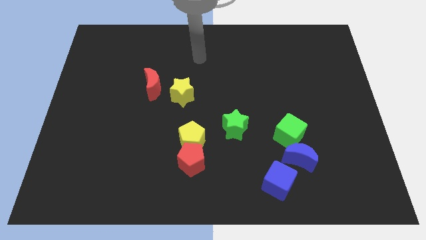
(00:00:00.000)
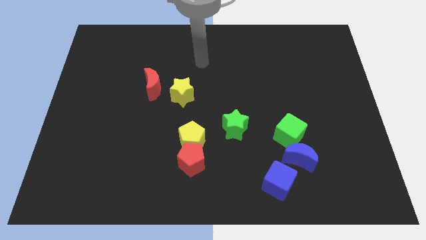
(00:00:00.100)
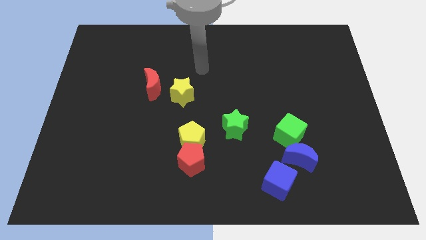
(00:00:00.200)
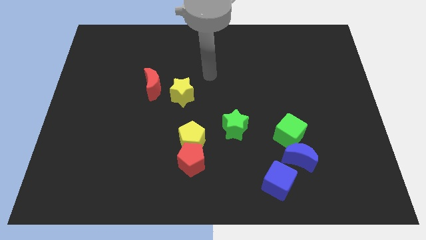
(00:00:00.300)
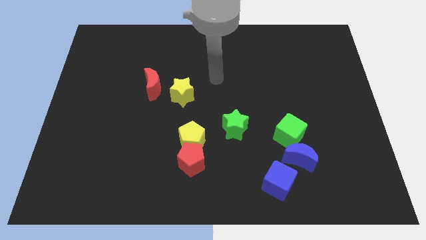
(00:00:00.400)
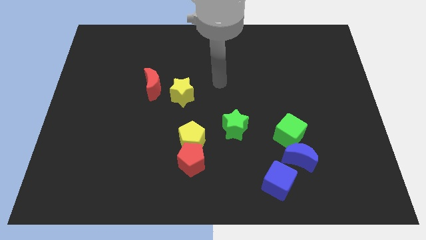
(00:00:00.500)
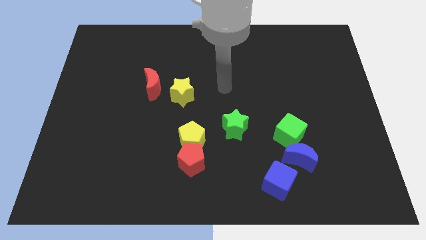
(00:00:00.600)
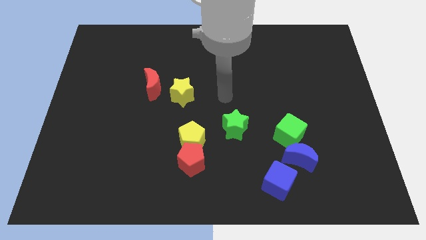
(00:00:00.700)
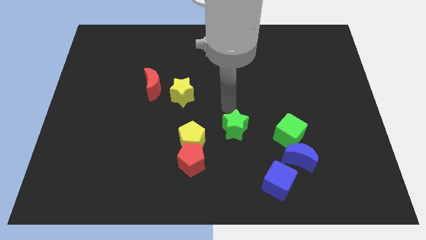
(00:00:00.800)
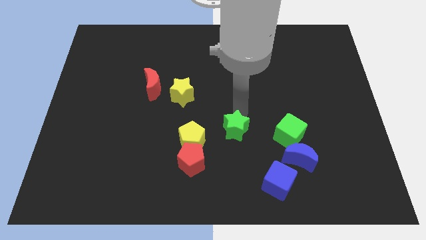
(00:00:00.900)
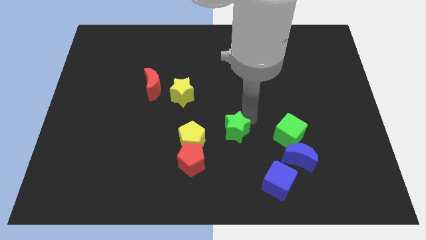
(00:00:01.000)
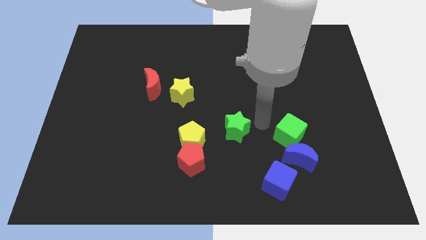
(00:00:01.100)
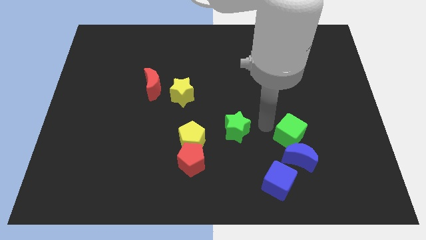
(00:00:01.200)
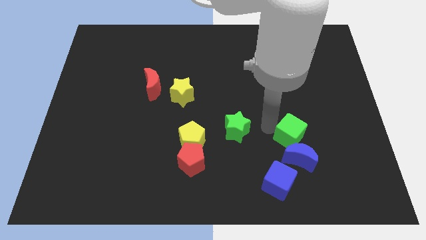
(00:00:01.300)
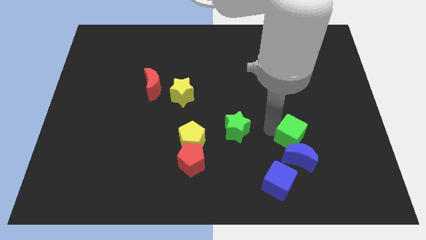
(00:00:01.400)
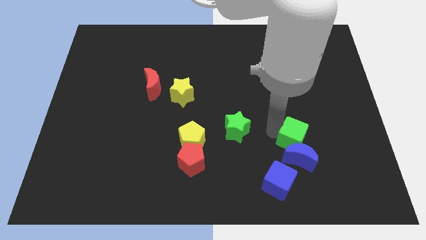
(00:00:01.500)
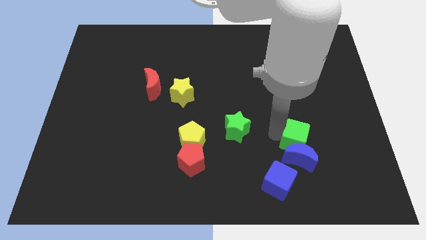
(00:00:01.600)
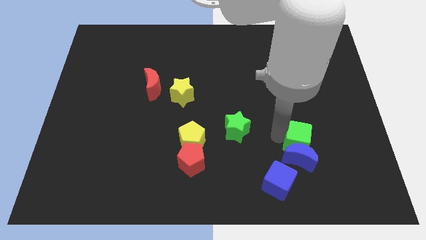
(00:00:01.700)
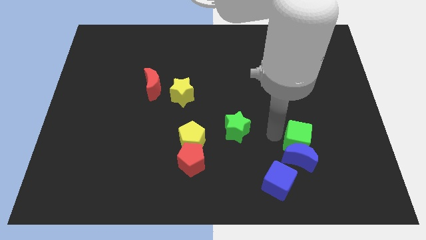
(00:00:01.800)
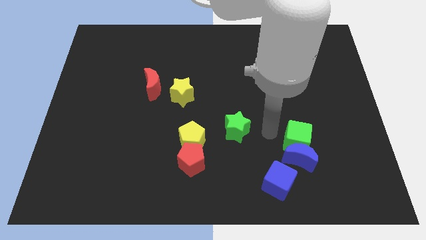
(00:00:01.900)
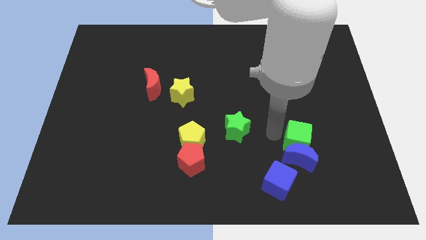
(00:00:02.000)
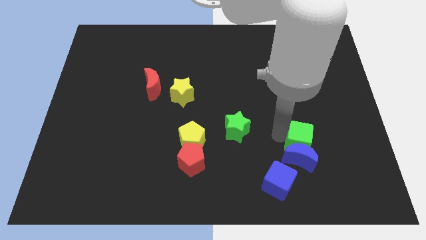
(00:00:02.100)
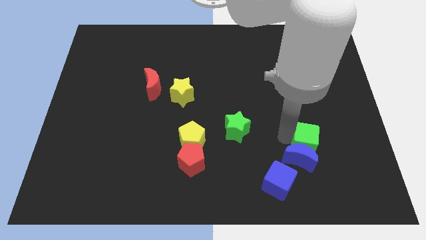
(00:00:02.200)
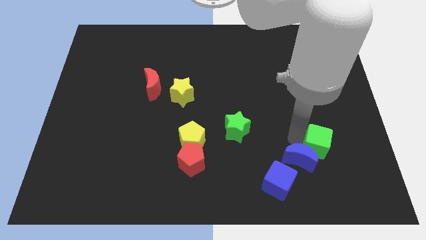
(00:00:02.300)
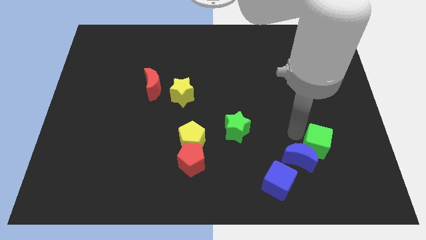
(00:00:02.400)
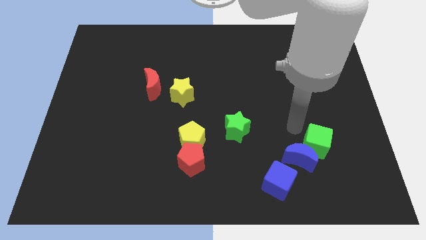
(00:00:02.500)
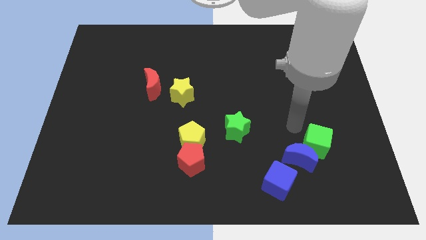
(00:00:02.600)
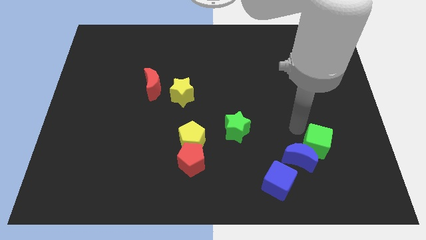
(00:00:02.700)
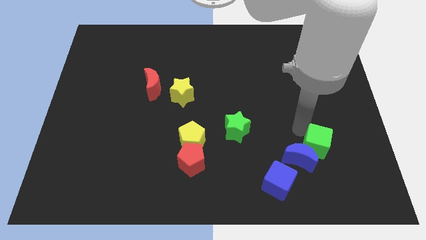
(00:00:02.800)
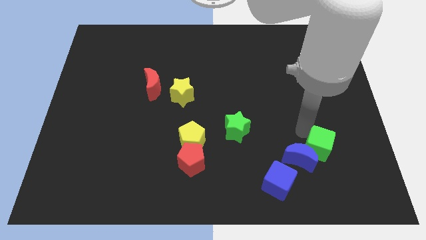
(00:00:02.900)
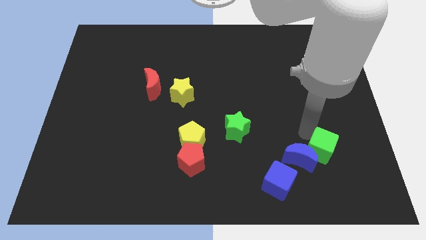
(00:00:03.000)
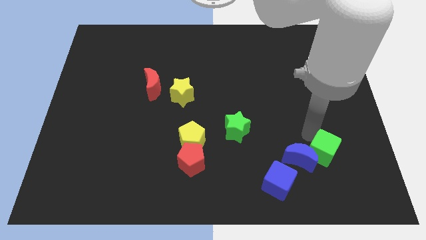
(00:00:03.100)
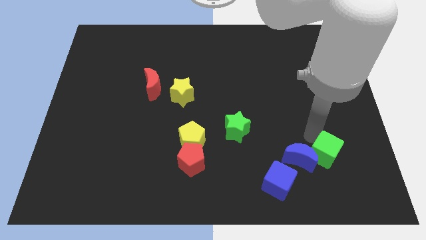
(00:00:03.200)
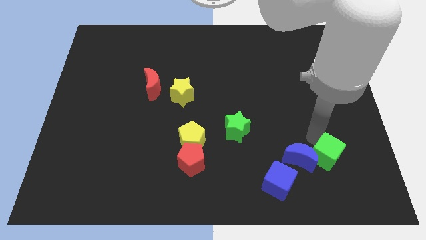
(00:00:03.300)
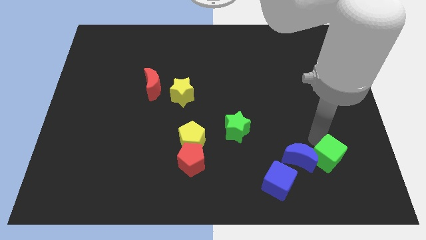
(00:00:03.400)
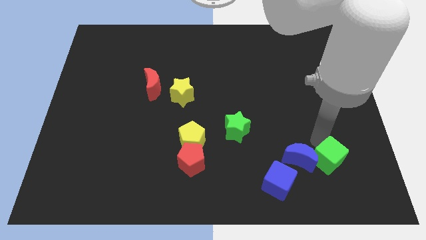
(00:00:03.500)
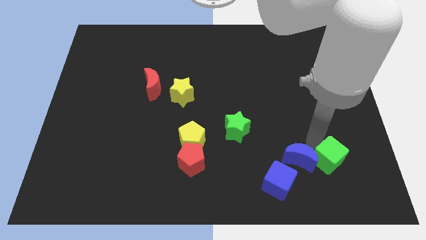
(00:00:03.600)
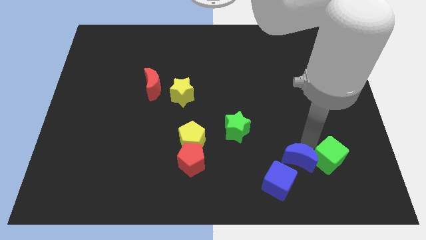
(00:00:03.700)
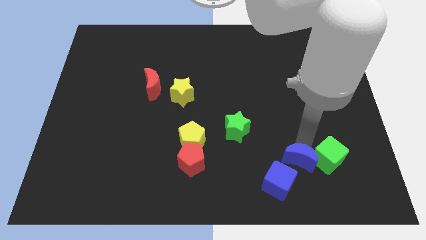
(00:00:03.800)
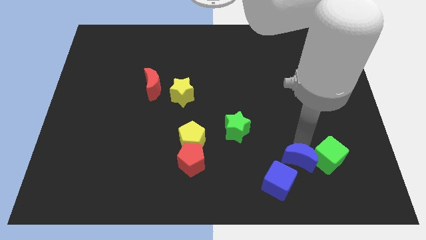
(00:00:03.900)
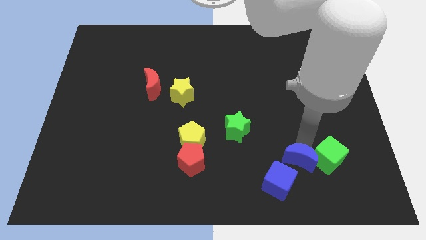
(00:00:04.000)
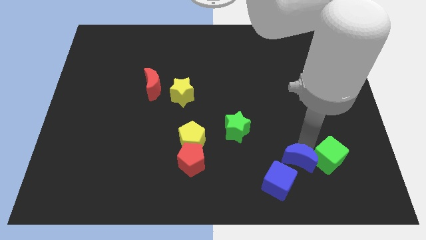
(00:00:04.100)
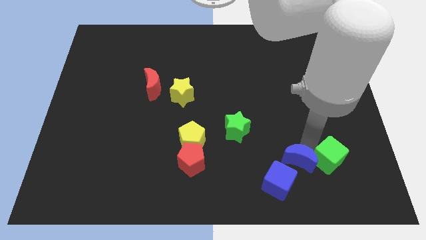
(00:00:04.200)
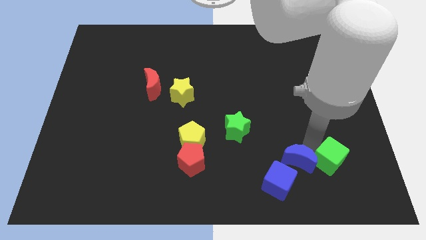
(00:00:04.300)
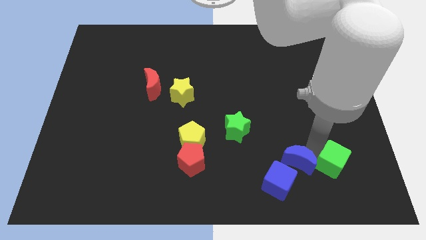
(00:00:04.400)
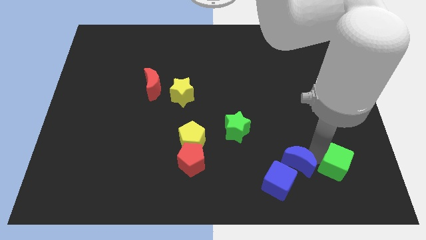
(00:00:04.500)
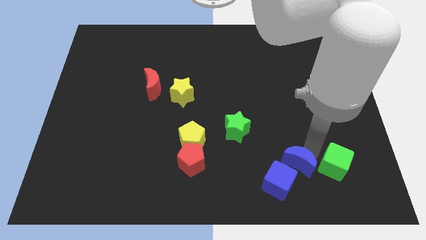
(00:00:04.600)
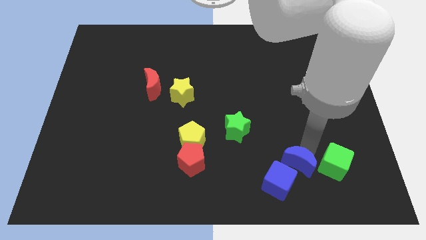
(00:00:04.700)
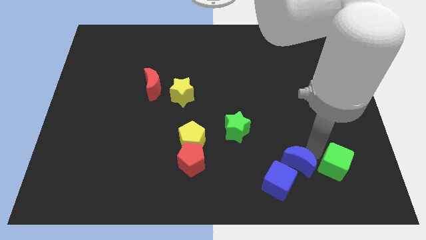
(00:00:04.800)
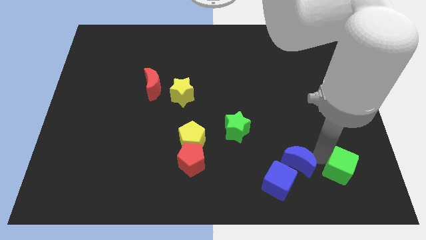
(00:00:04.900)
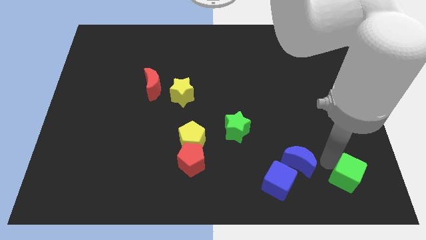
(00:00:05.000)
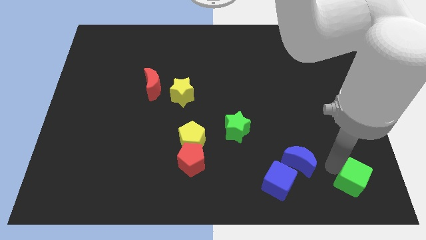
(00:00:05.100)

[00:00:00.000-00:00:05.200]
move the green cube to the bottom right

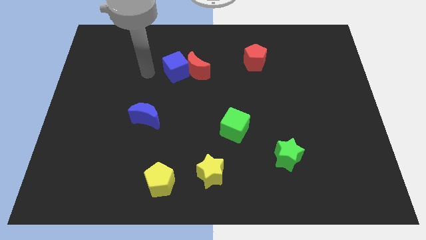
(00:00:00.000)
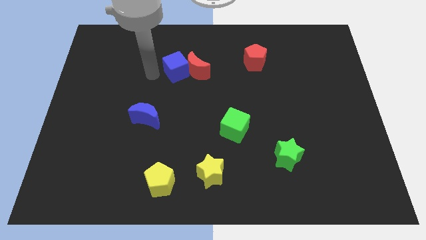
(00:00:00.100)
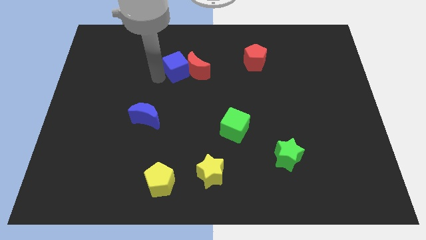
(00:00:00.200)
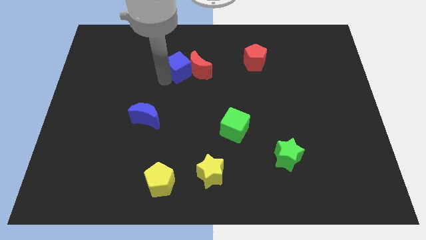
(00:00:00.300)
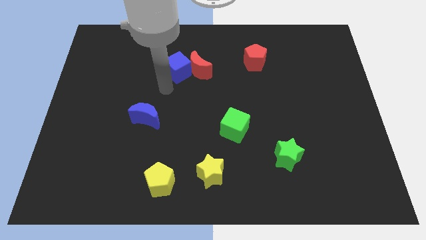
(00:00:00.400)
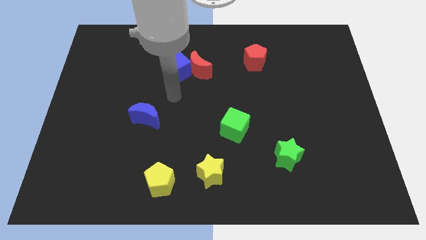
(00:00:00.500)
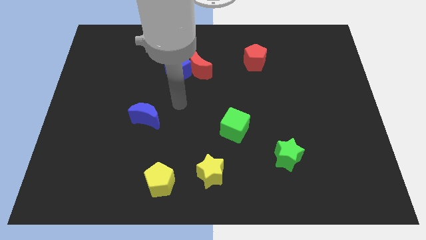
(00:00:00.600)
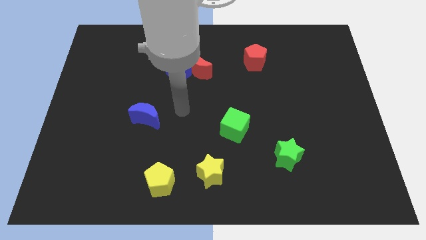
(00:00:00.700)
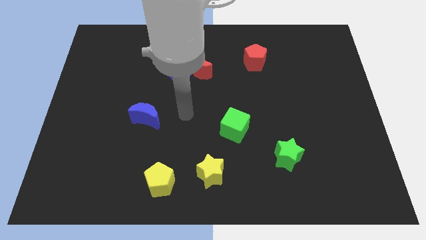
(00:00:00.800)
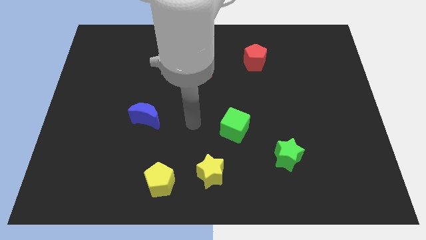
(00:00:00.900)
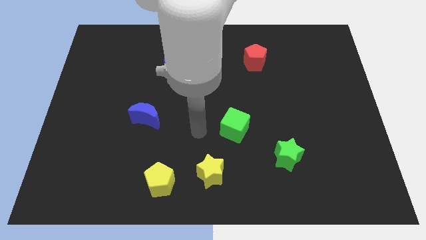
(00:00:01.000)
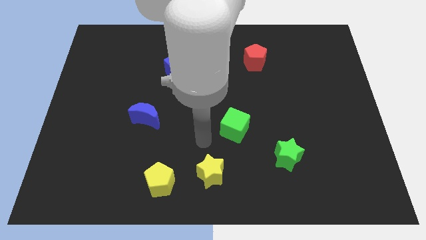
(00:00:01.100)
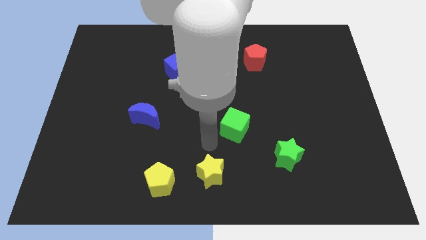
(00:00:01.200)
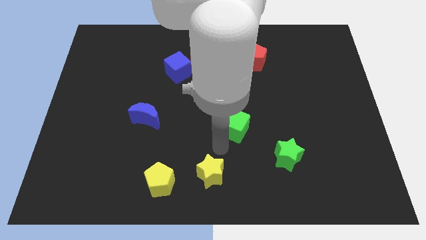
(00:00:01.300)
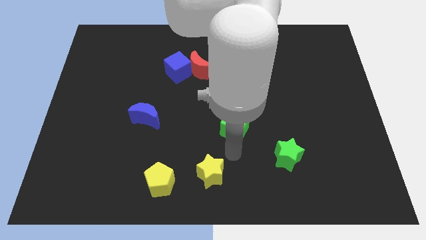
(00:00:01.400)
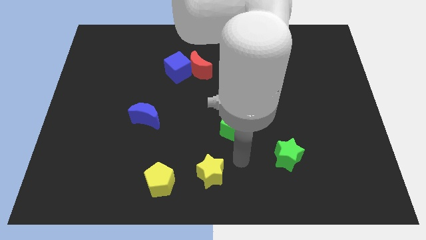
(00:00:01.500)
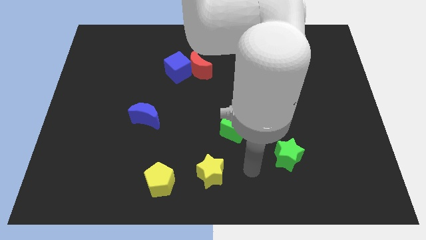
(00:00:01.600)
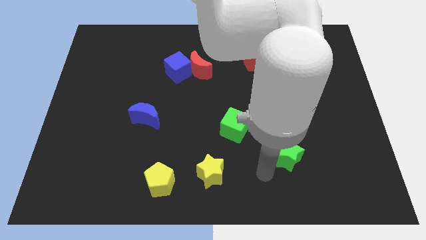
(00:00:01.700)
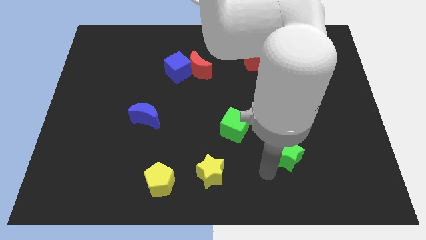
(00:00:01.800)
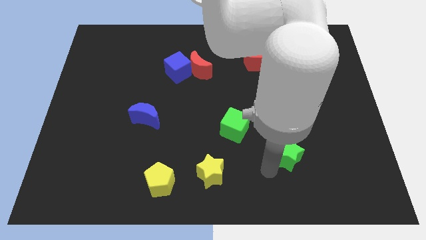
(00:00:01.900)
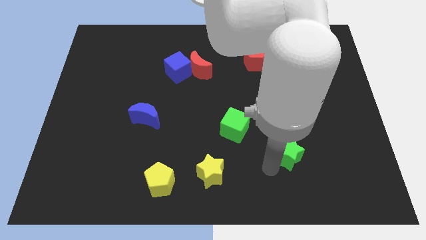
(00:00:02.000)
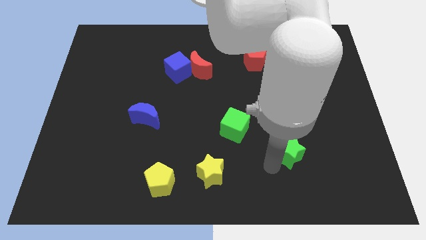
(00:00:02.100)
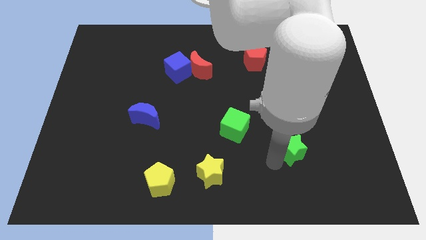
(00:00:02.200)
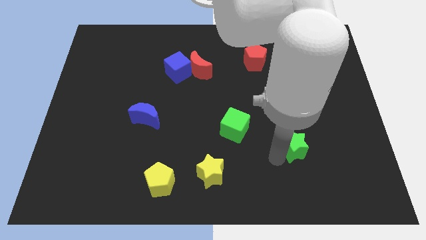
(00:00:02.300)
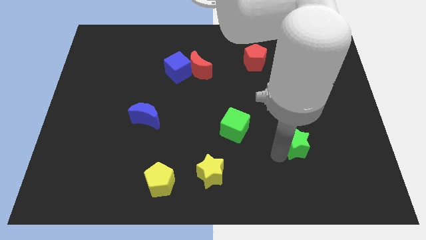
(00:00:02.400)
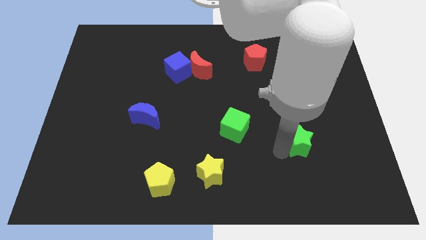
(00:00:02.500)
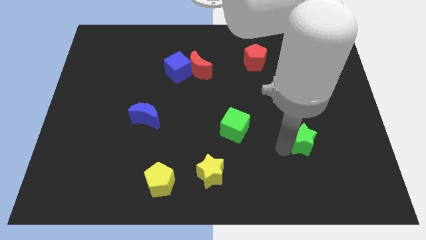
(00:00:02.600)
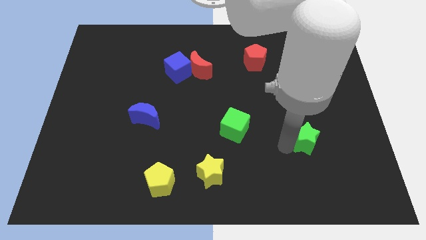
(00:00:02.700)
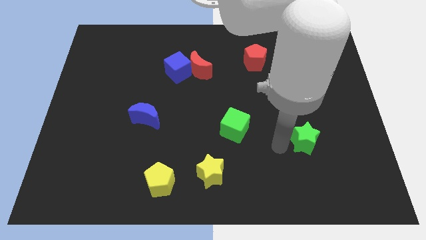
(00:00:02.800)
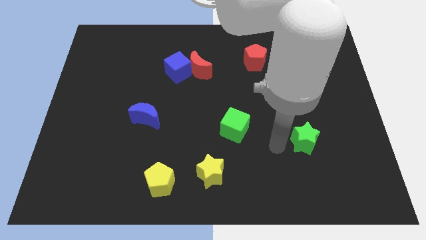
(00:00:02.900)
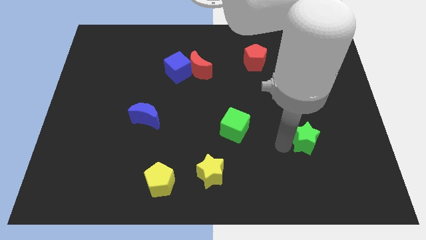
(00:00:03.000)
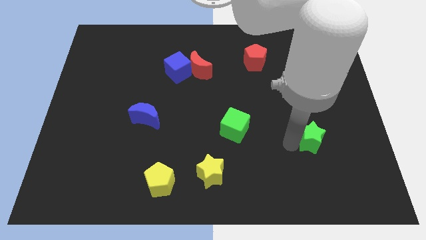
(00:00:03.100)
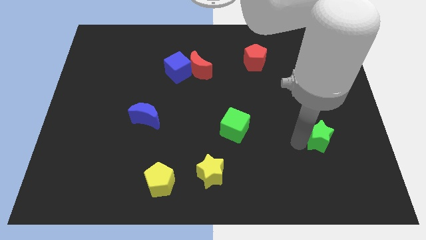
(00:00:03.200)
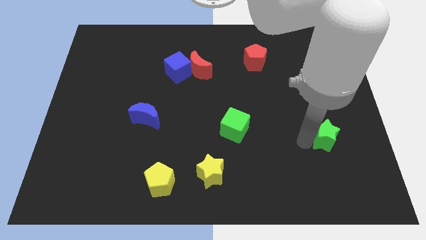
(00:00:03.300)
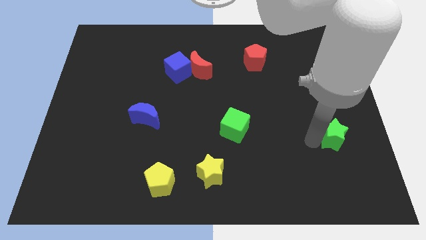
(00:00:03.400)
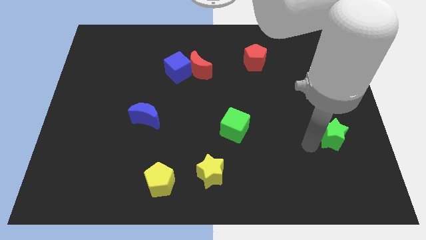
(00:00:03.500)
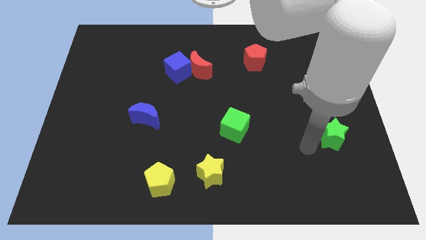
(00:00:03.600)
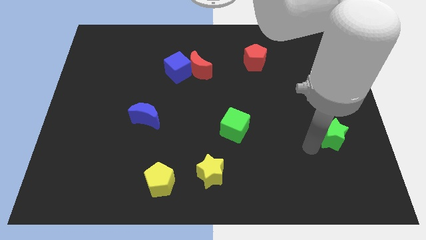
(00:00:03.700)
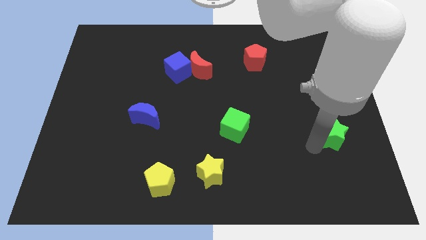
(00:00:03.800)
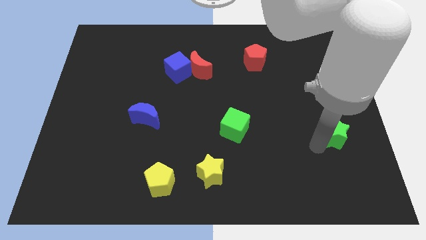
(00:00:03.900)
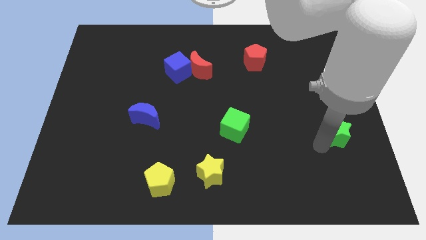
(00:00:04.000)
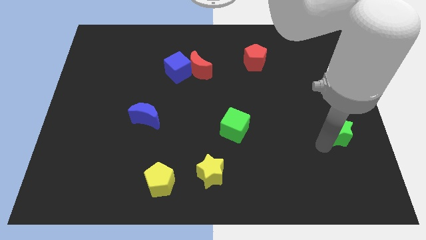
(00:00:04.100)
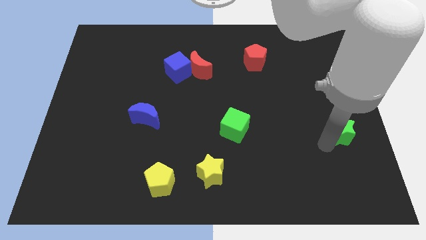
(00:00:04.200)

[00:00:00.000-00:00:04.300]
put the green star to the right side of the board
